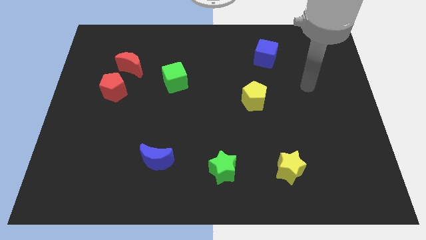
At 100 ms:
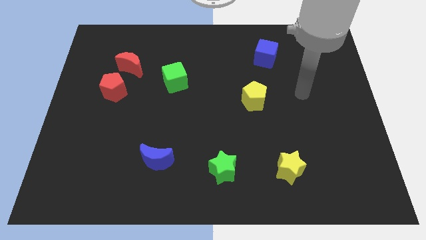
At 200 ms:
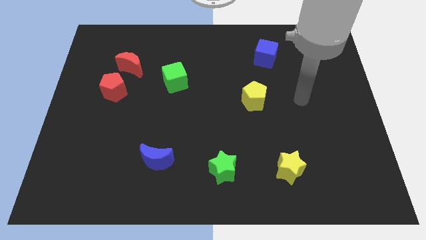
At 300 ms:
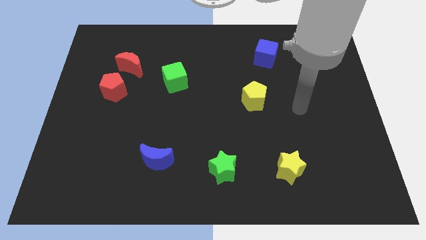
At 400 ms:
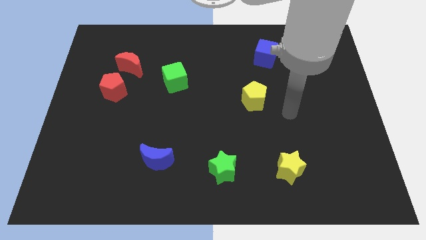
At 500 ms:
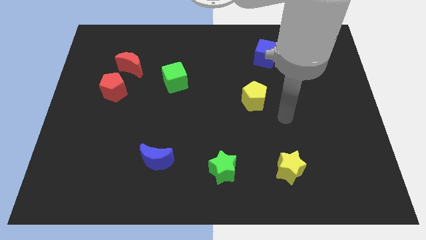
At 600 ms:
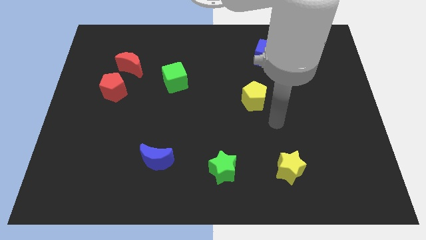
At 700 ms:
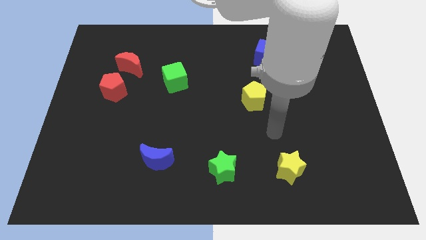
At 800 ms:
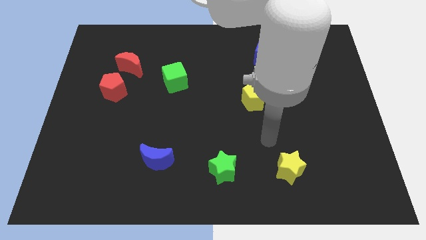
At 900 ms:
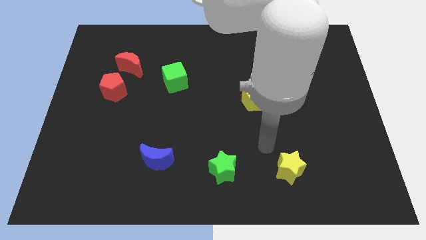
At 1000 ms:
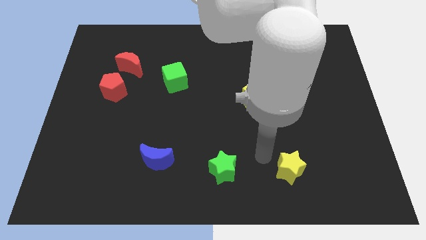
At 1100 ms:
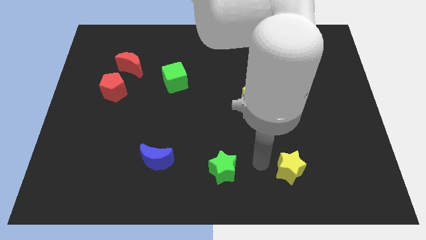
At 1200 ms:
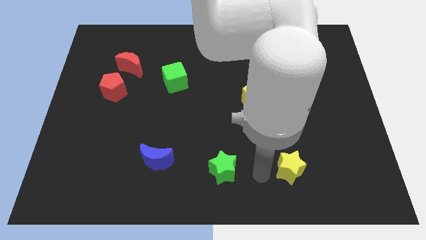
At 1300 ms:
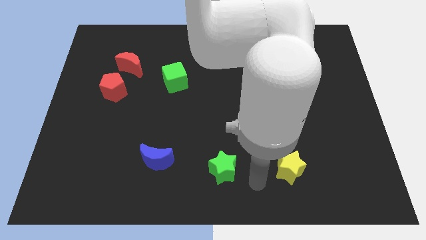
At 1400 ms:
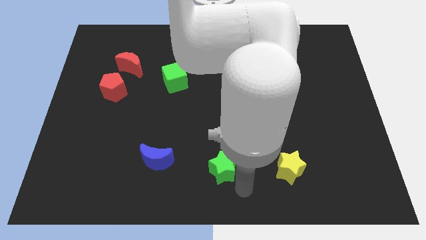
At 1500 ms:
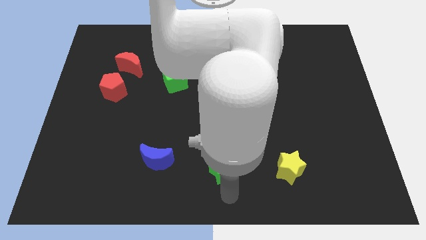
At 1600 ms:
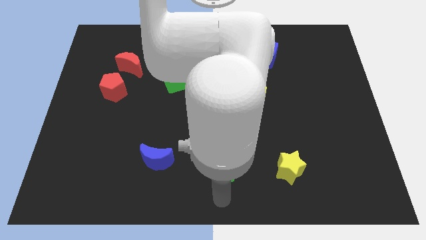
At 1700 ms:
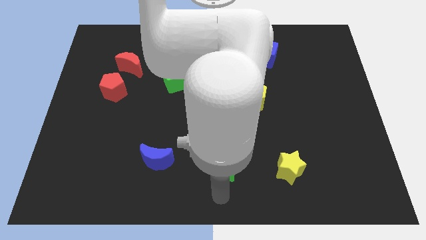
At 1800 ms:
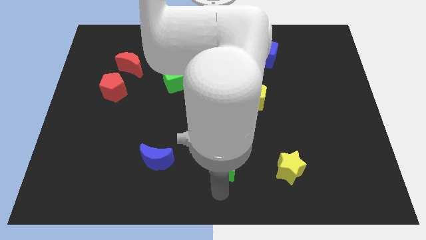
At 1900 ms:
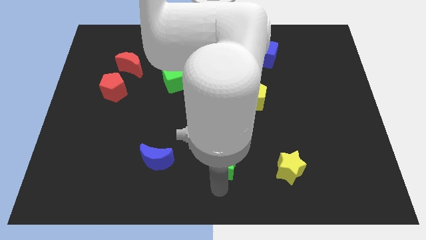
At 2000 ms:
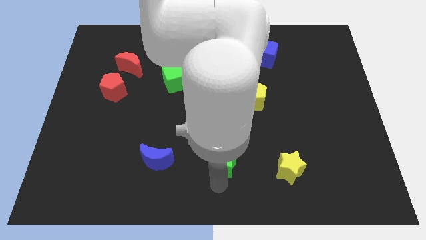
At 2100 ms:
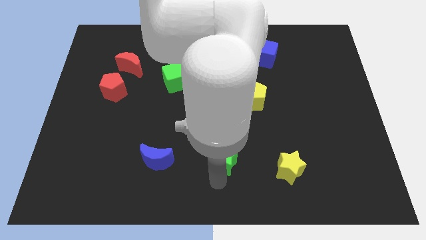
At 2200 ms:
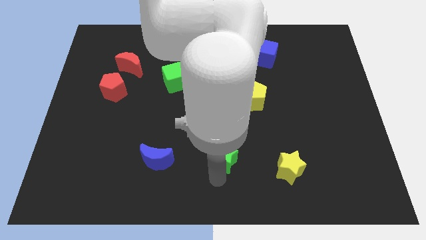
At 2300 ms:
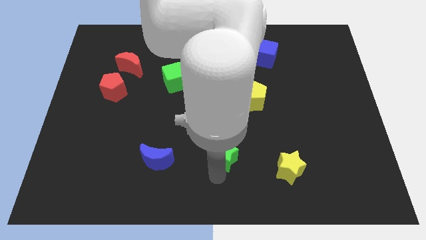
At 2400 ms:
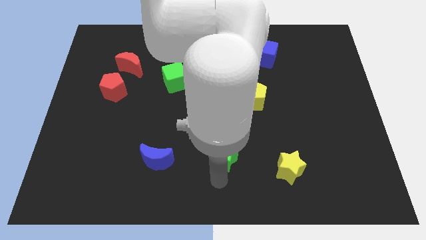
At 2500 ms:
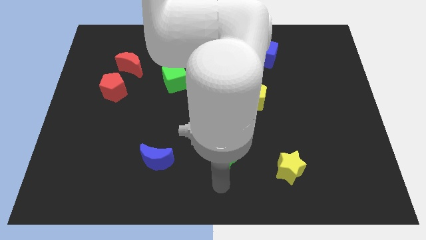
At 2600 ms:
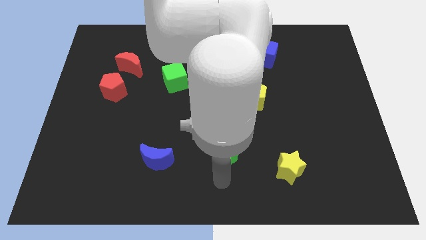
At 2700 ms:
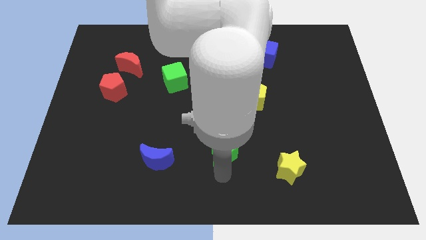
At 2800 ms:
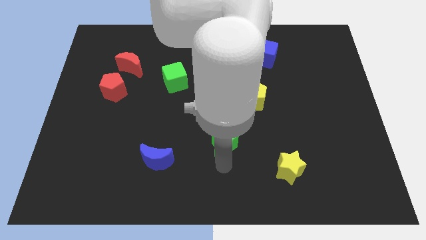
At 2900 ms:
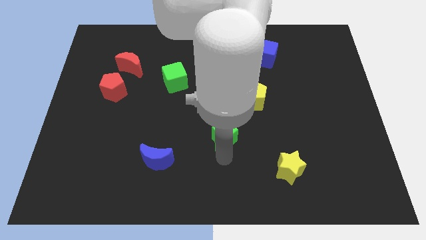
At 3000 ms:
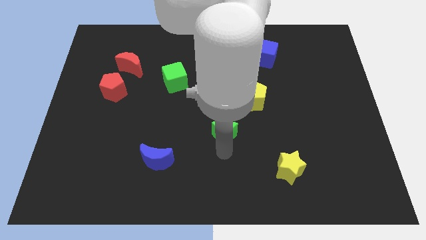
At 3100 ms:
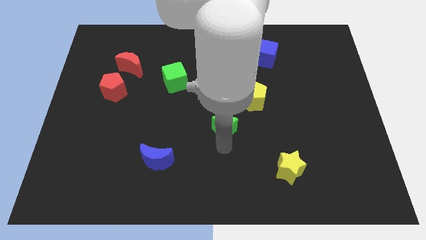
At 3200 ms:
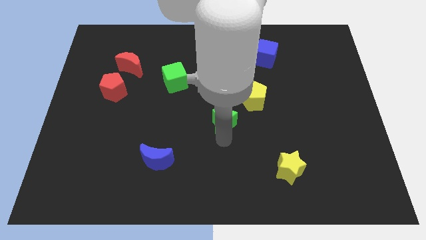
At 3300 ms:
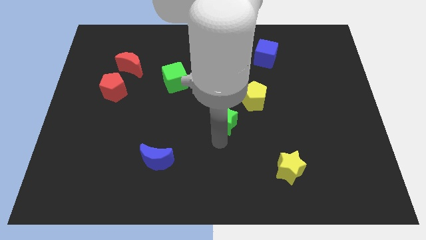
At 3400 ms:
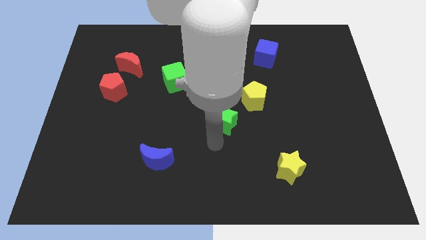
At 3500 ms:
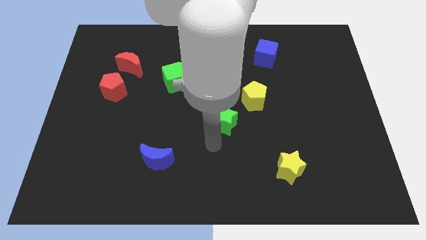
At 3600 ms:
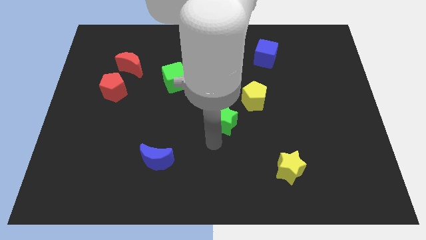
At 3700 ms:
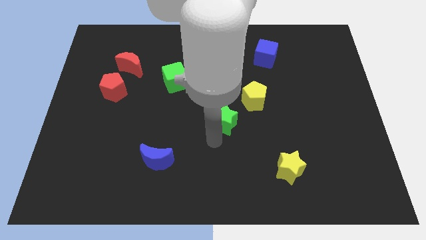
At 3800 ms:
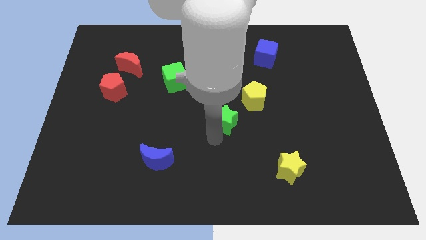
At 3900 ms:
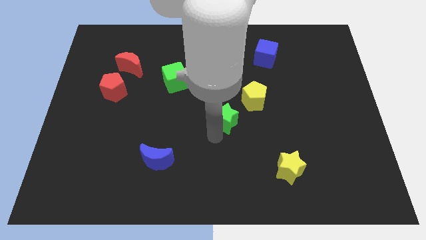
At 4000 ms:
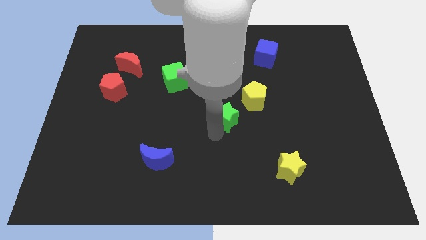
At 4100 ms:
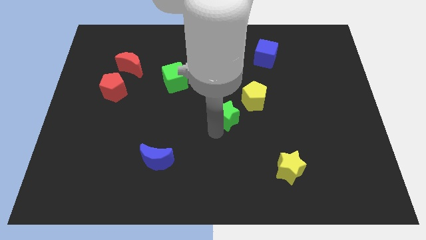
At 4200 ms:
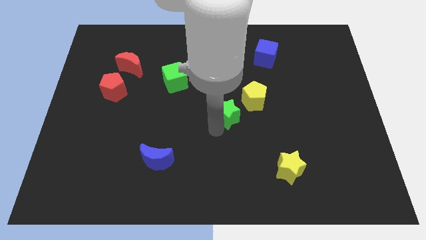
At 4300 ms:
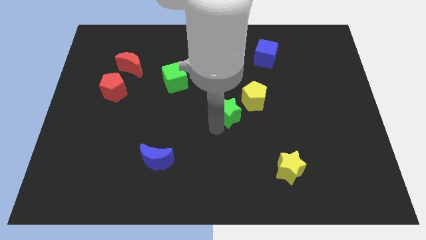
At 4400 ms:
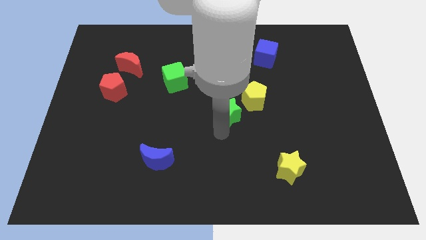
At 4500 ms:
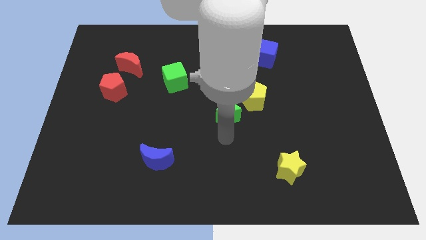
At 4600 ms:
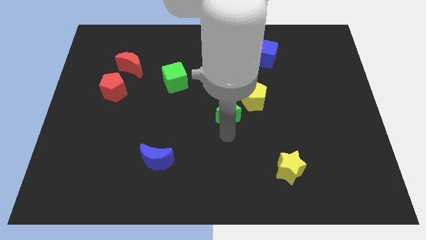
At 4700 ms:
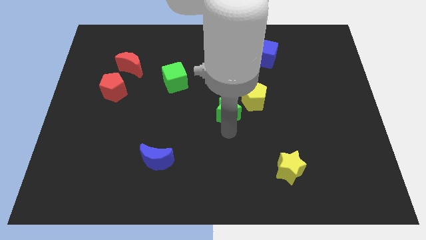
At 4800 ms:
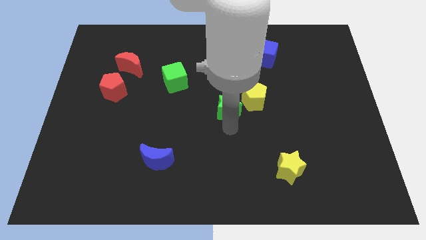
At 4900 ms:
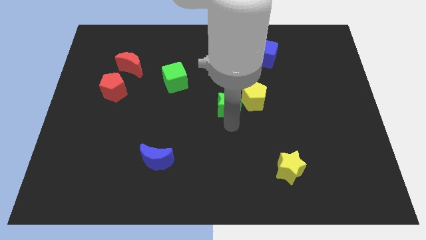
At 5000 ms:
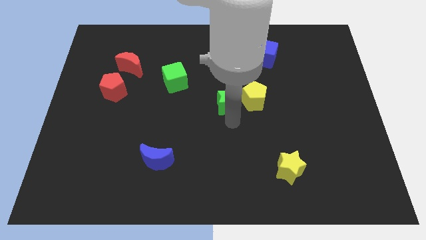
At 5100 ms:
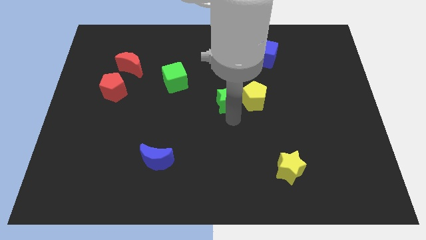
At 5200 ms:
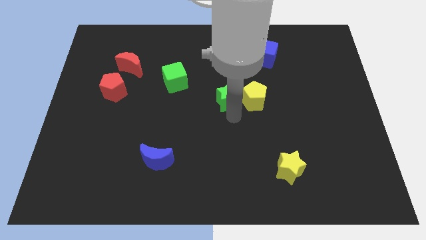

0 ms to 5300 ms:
slide the green star to the top left side of the yellow pentagon

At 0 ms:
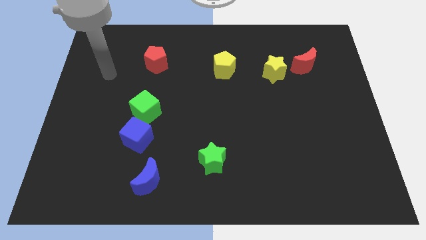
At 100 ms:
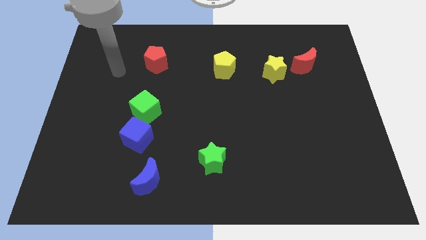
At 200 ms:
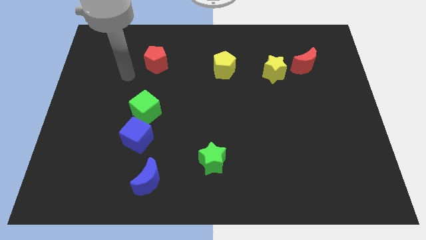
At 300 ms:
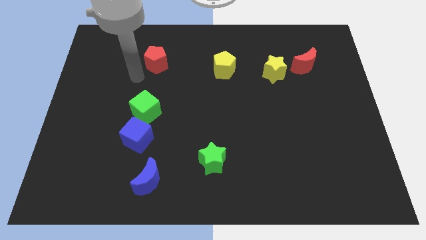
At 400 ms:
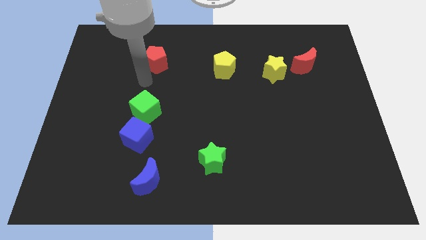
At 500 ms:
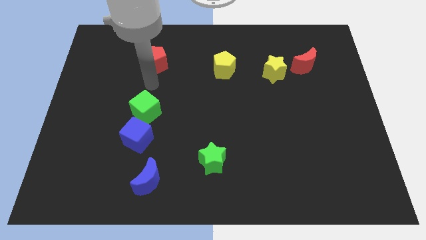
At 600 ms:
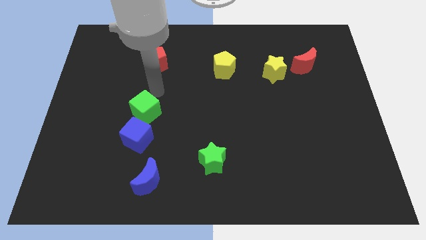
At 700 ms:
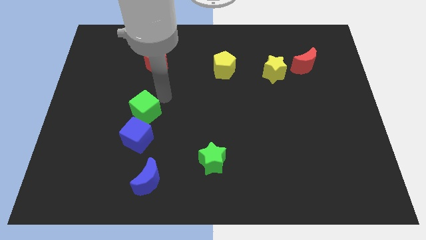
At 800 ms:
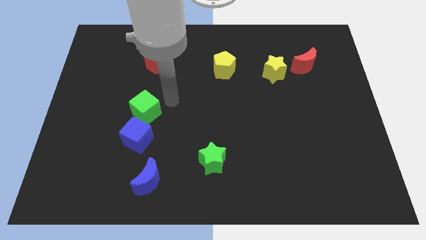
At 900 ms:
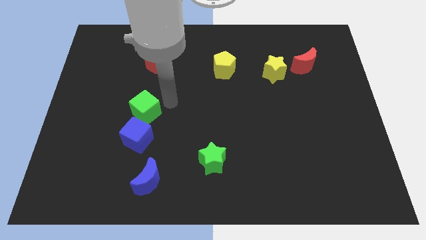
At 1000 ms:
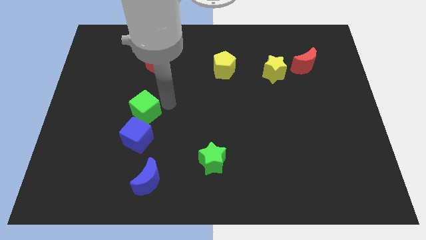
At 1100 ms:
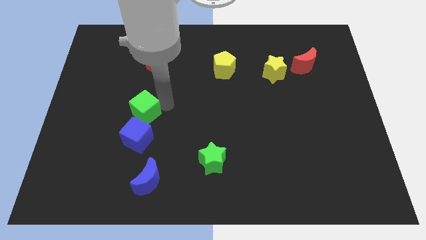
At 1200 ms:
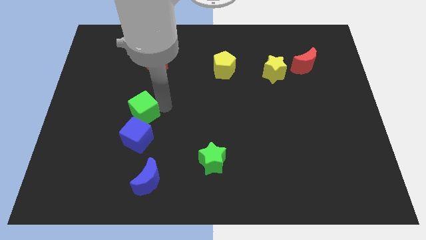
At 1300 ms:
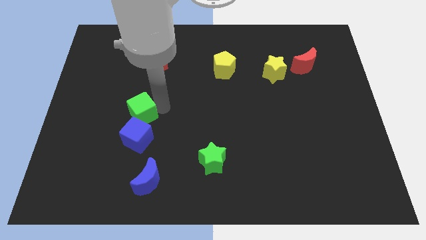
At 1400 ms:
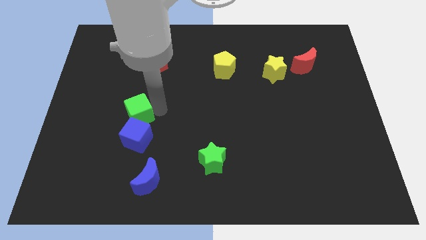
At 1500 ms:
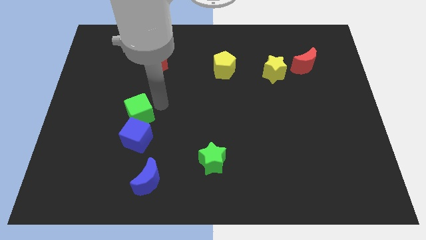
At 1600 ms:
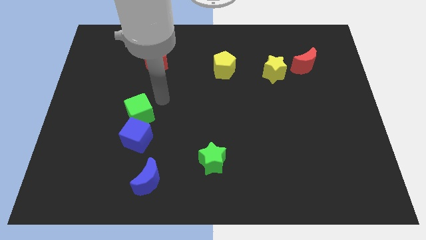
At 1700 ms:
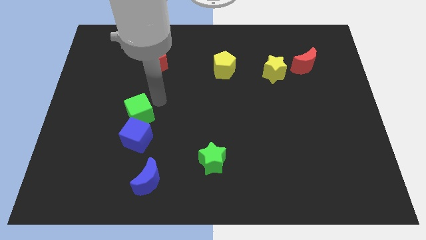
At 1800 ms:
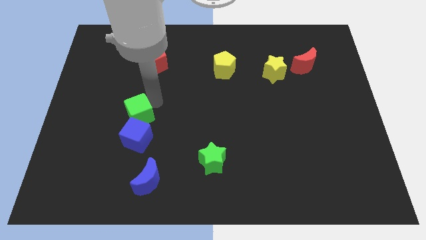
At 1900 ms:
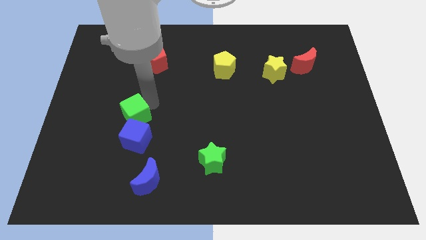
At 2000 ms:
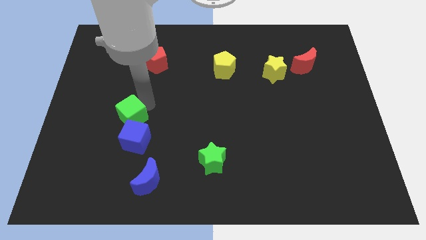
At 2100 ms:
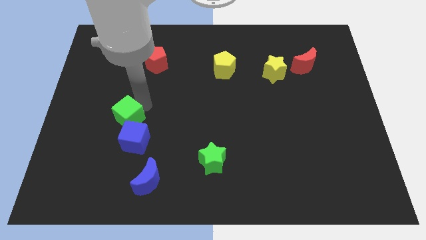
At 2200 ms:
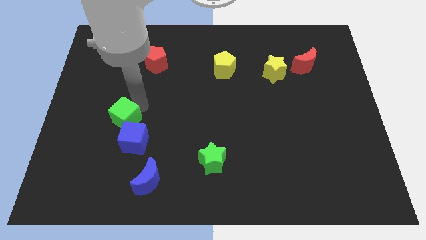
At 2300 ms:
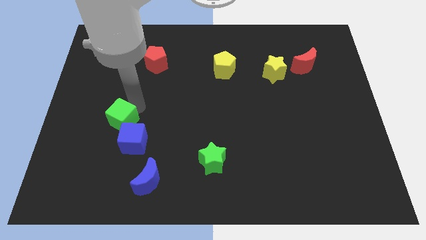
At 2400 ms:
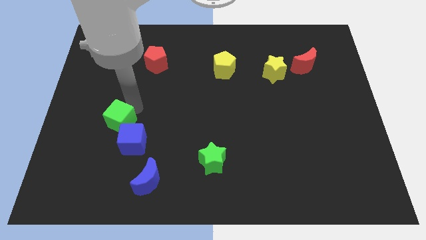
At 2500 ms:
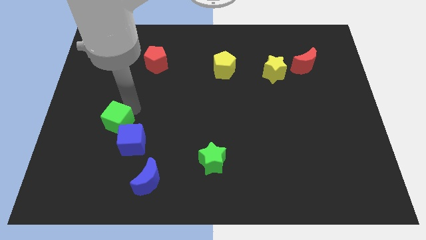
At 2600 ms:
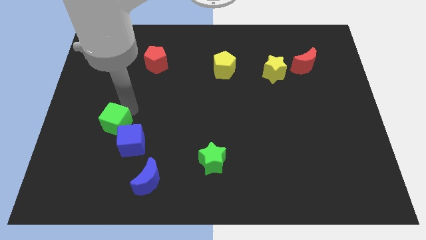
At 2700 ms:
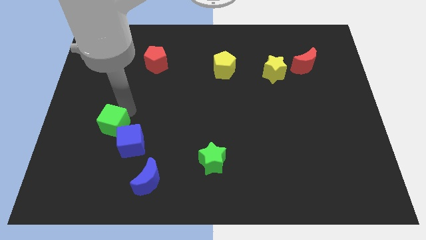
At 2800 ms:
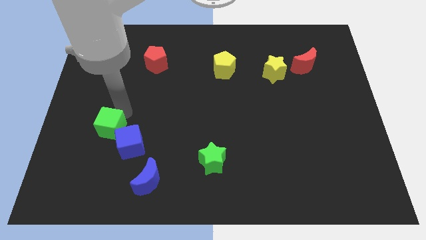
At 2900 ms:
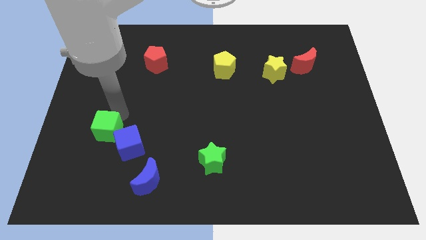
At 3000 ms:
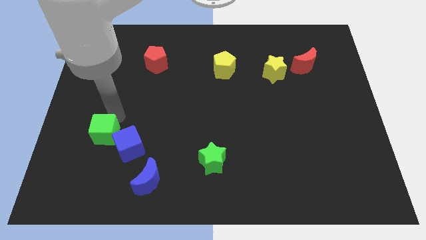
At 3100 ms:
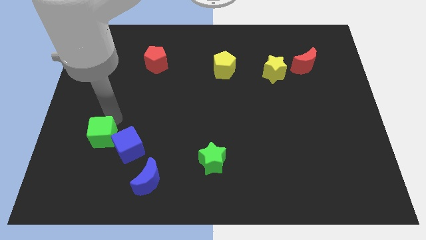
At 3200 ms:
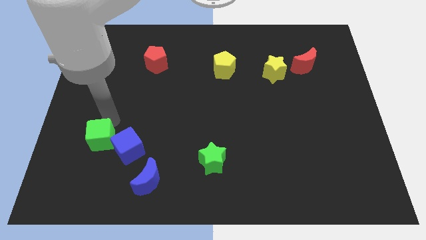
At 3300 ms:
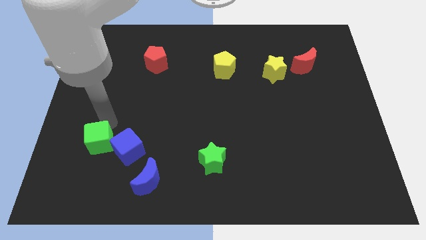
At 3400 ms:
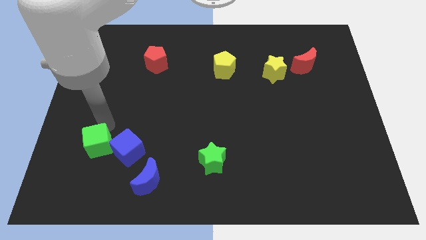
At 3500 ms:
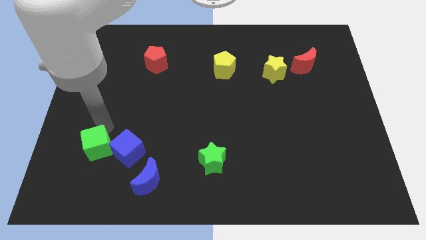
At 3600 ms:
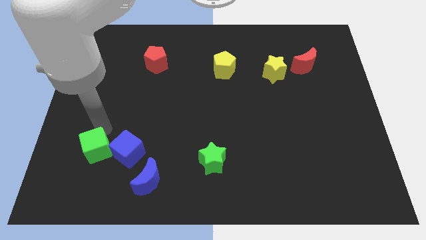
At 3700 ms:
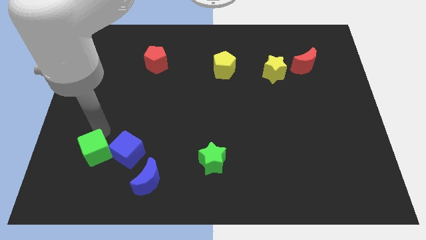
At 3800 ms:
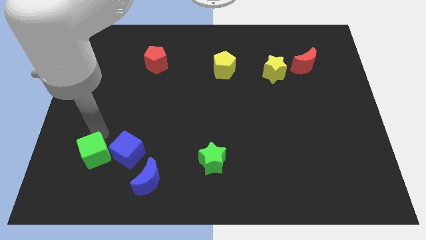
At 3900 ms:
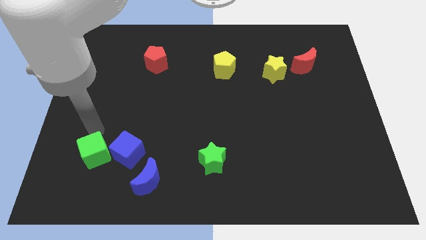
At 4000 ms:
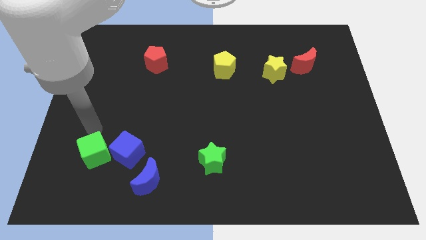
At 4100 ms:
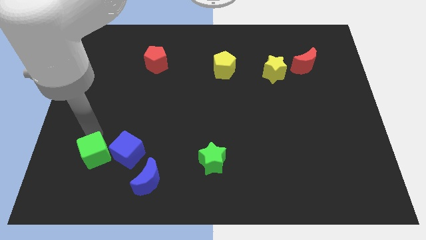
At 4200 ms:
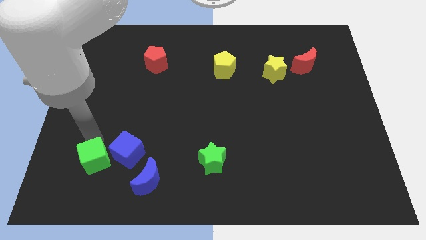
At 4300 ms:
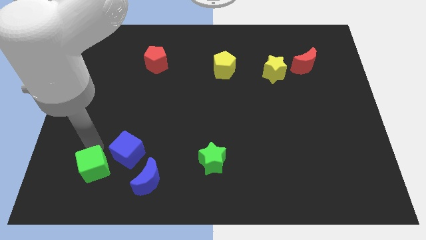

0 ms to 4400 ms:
move the green cube just left of the blue moon
